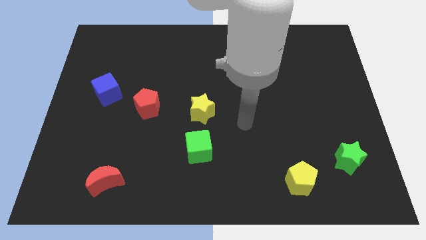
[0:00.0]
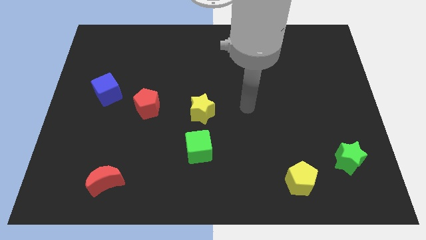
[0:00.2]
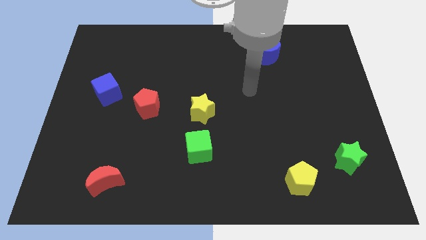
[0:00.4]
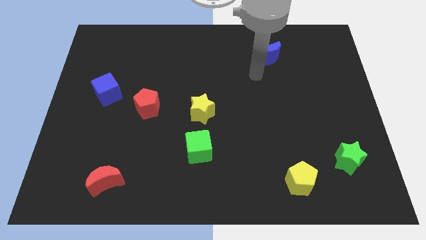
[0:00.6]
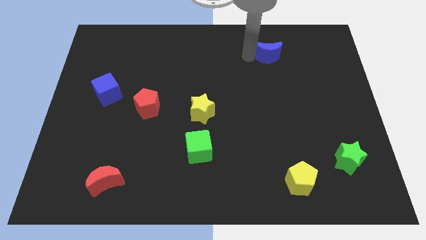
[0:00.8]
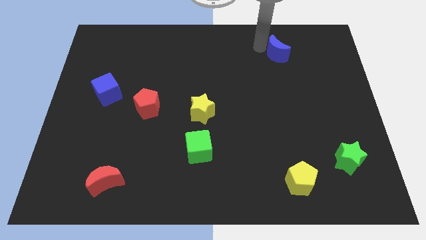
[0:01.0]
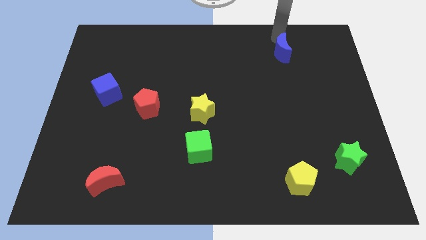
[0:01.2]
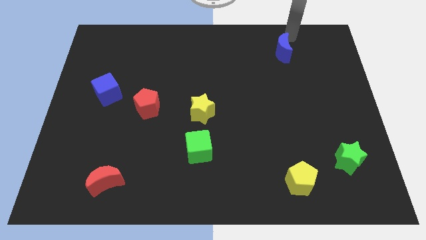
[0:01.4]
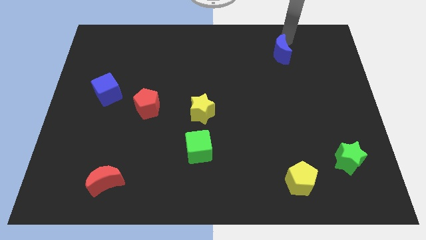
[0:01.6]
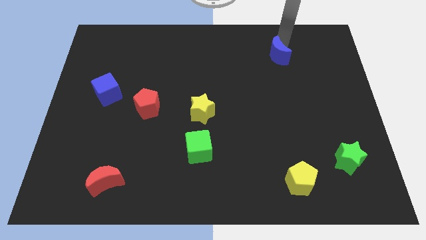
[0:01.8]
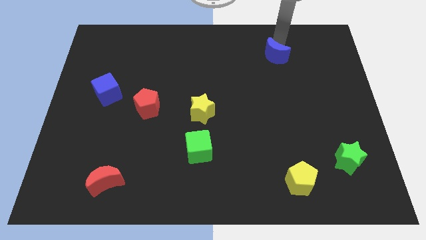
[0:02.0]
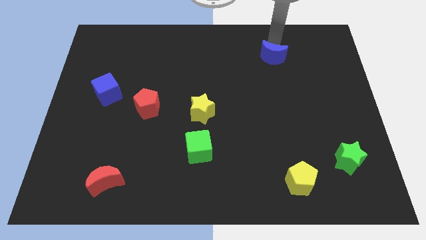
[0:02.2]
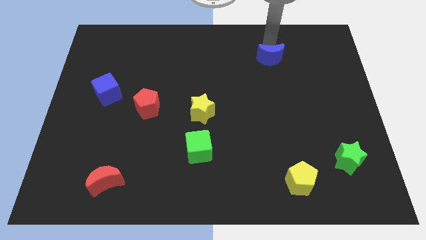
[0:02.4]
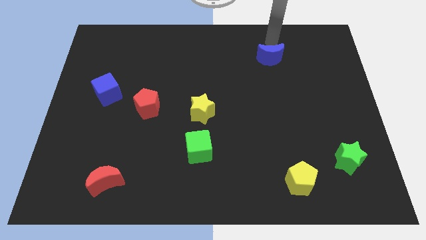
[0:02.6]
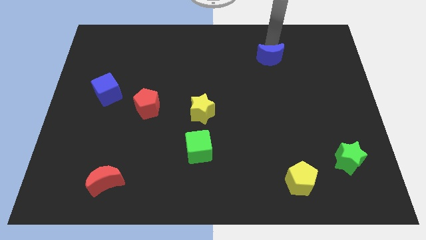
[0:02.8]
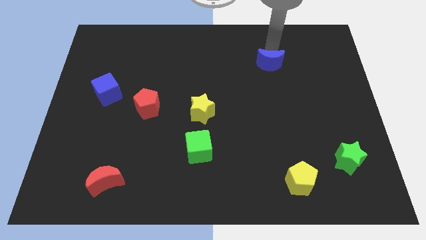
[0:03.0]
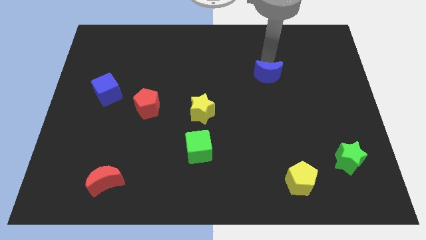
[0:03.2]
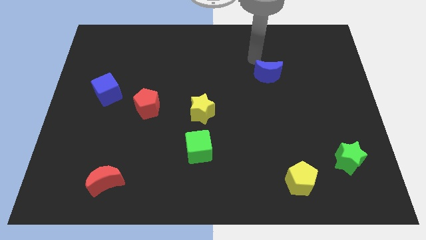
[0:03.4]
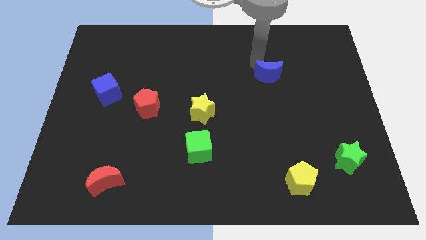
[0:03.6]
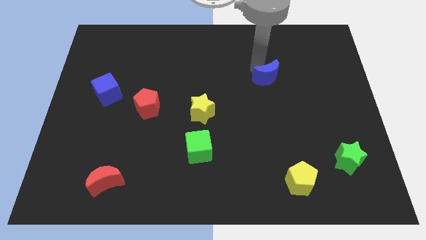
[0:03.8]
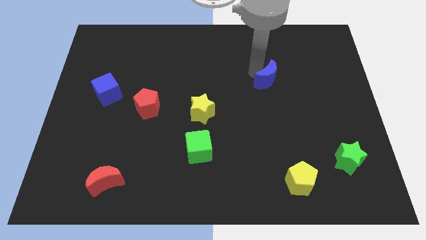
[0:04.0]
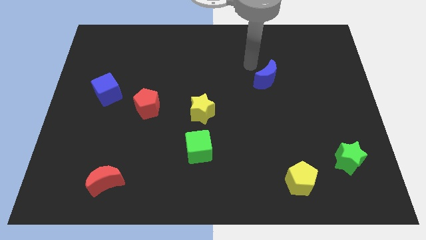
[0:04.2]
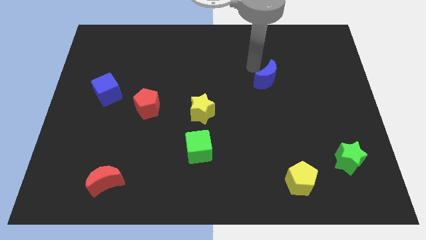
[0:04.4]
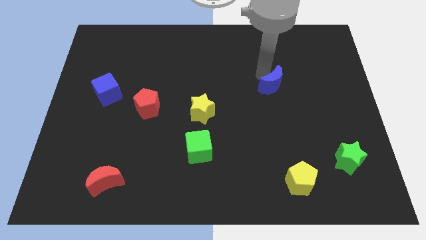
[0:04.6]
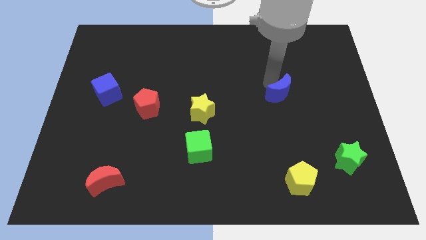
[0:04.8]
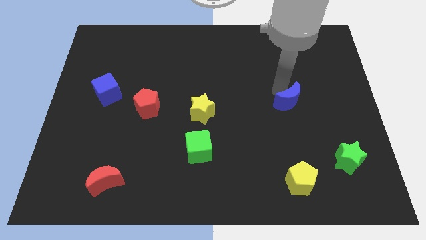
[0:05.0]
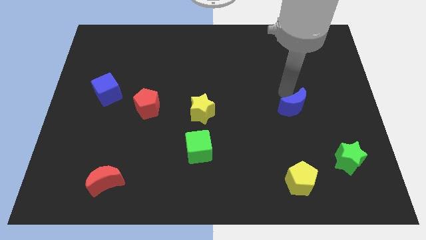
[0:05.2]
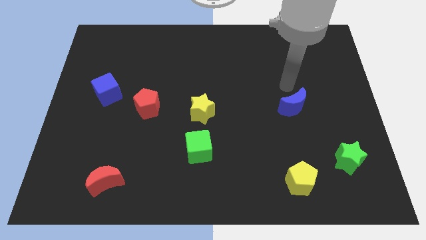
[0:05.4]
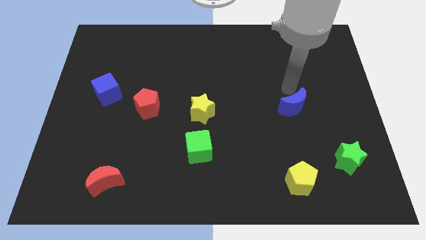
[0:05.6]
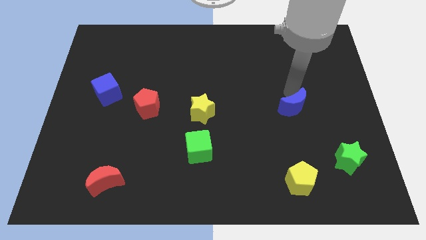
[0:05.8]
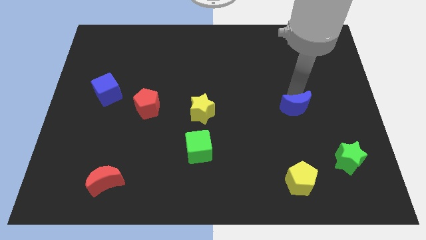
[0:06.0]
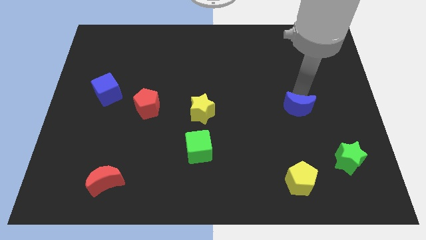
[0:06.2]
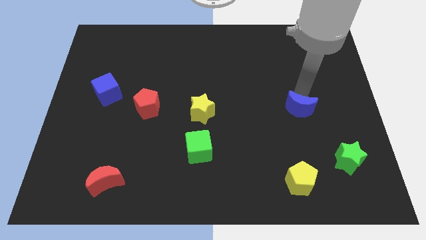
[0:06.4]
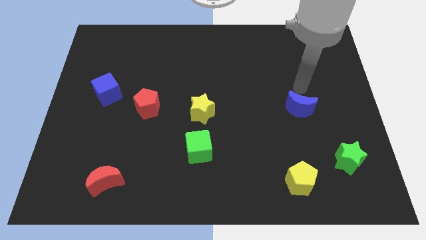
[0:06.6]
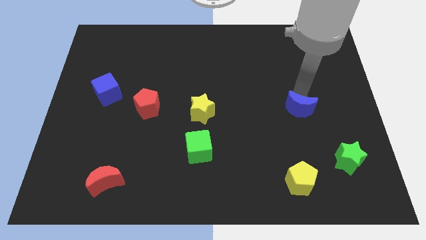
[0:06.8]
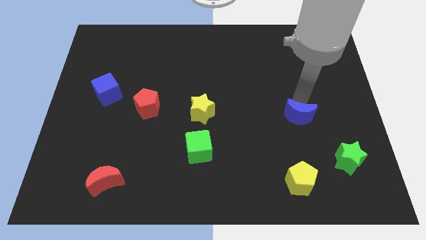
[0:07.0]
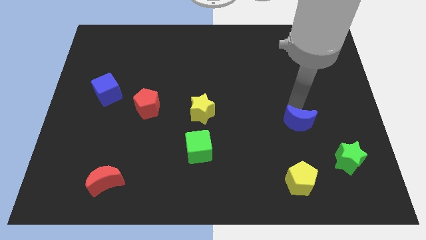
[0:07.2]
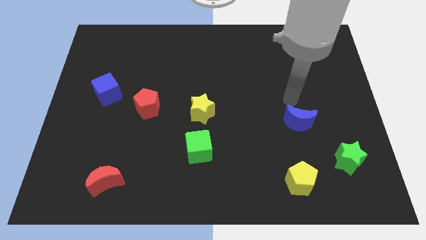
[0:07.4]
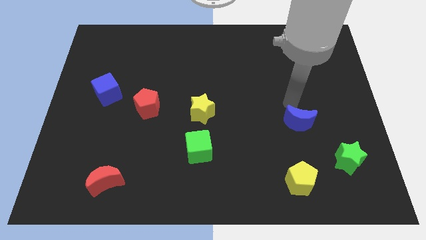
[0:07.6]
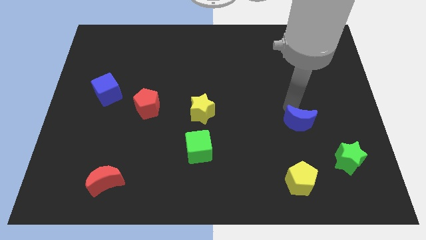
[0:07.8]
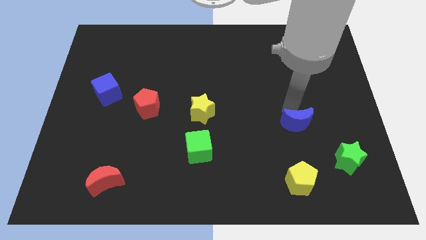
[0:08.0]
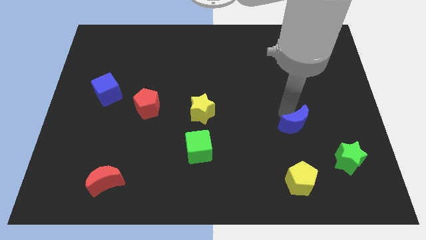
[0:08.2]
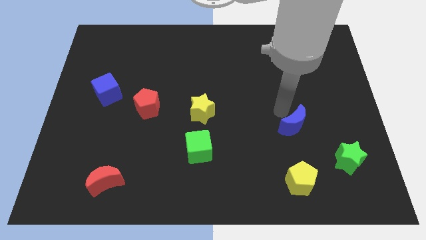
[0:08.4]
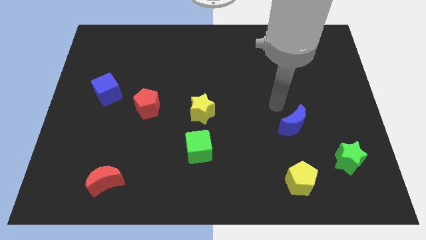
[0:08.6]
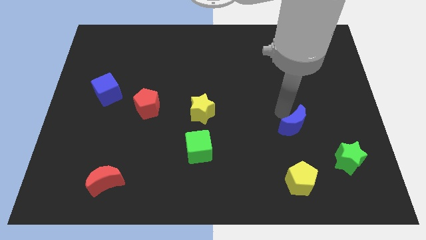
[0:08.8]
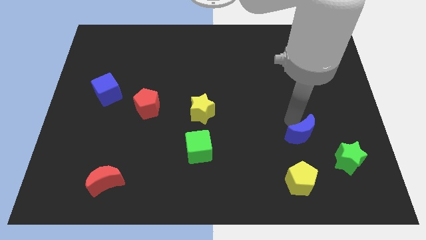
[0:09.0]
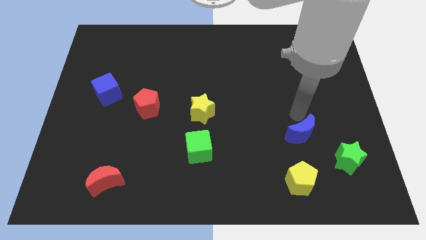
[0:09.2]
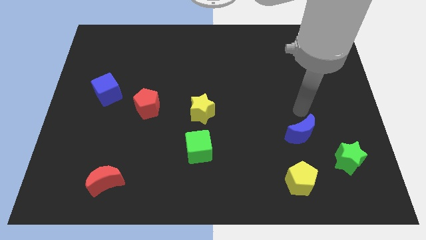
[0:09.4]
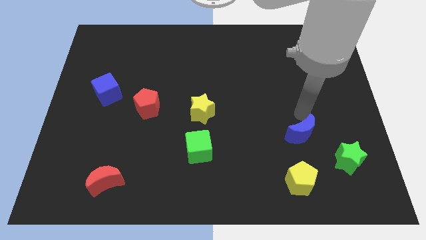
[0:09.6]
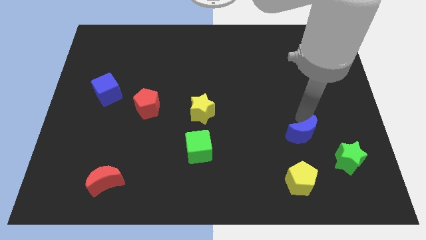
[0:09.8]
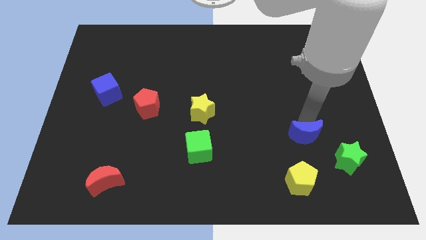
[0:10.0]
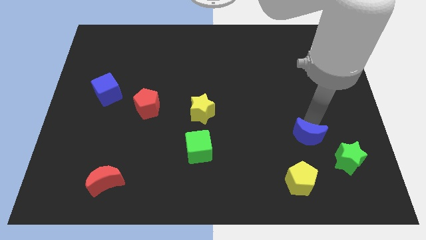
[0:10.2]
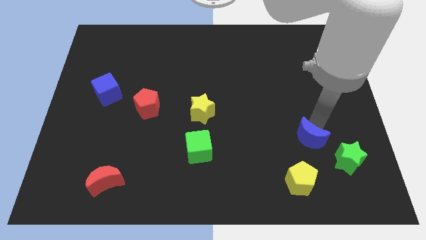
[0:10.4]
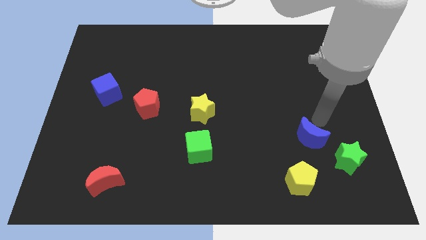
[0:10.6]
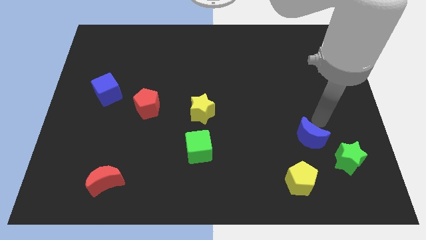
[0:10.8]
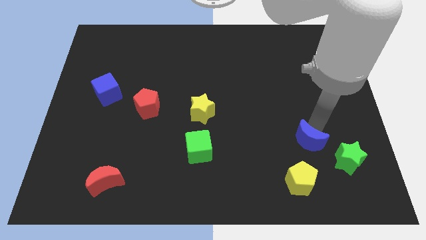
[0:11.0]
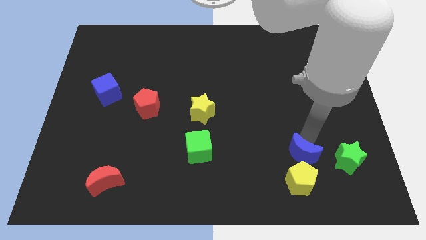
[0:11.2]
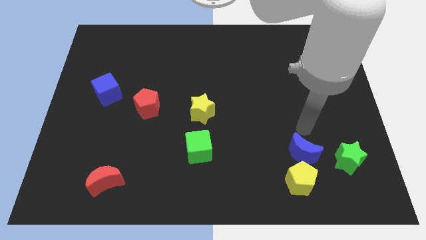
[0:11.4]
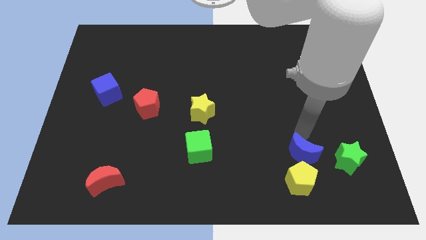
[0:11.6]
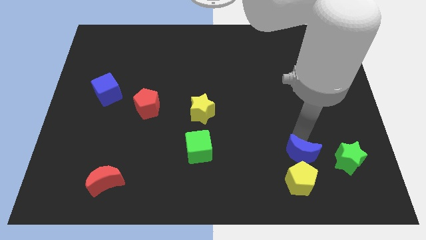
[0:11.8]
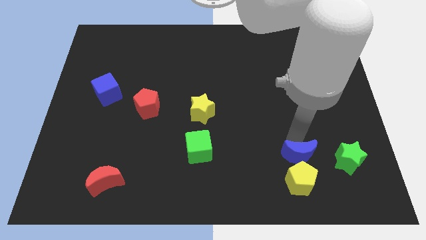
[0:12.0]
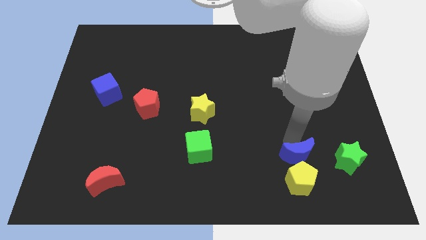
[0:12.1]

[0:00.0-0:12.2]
push the blue moon towards the yellow pentagon

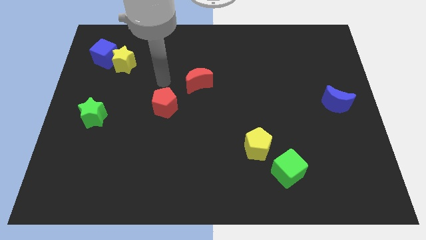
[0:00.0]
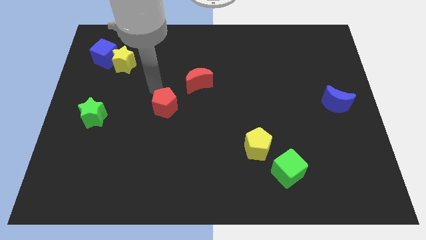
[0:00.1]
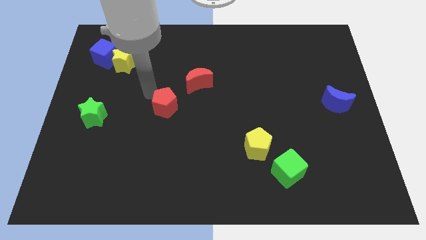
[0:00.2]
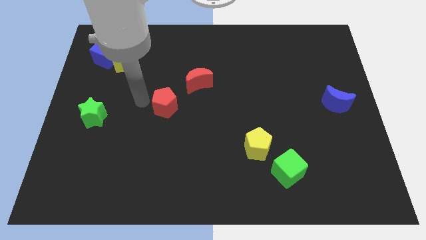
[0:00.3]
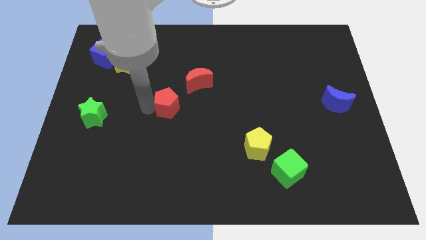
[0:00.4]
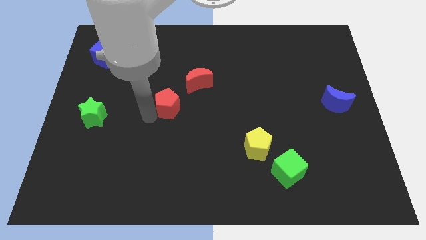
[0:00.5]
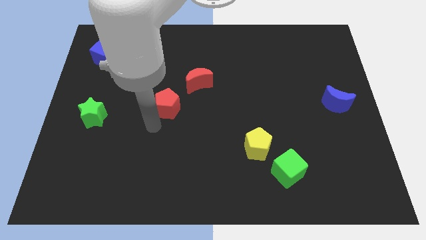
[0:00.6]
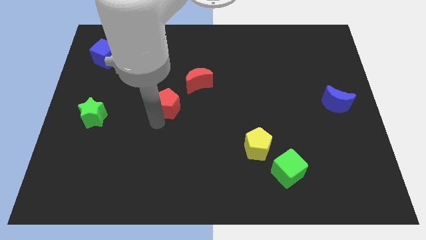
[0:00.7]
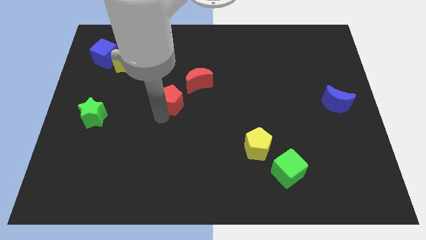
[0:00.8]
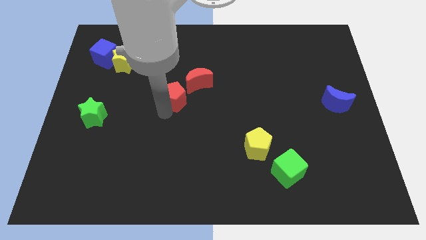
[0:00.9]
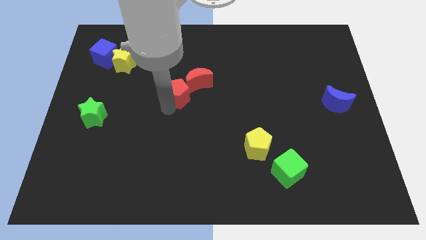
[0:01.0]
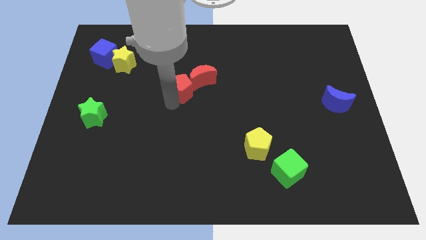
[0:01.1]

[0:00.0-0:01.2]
push the red pentagon towards the red moon
